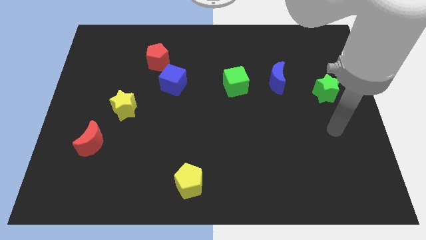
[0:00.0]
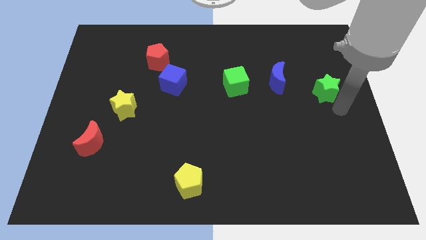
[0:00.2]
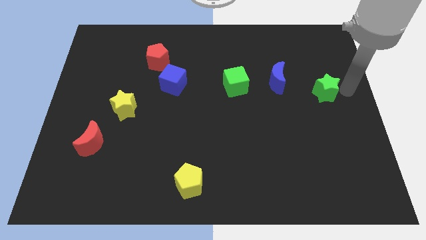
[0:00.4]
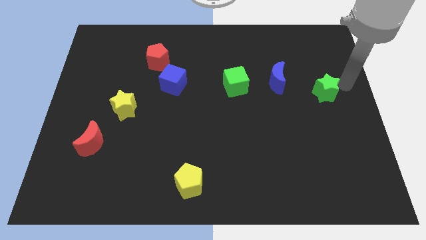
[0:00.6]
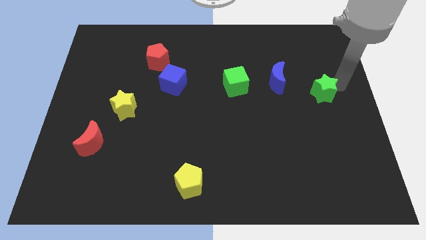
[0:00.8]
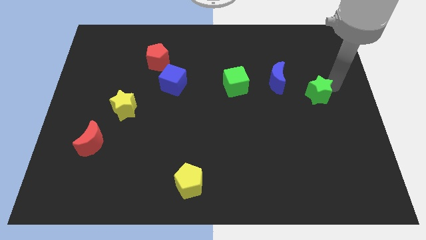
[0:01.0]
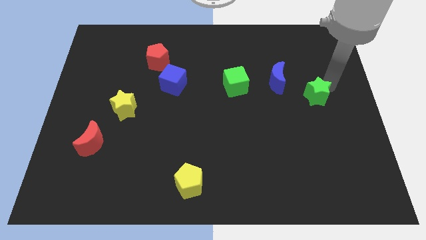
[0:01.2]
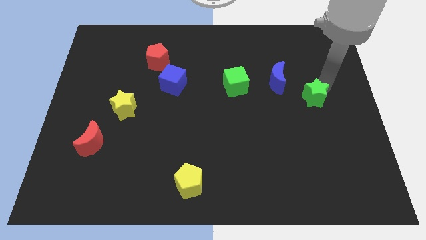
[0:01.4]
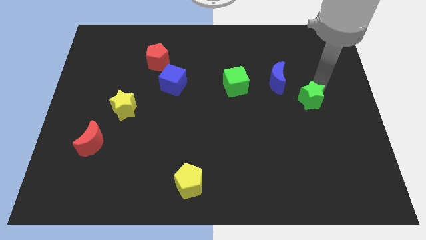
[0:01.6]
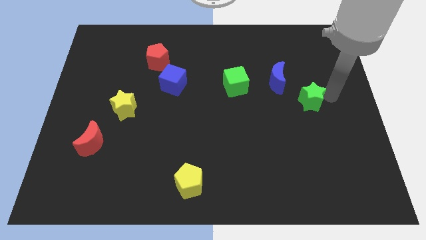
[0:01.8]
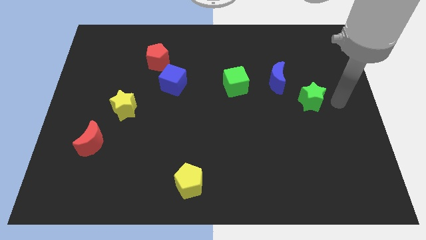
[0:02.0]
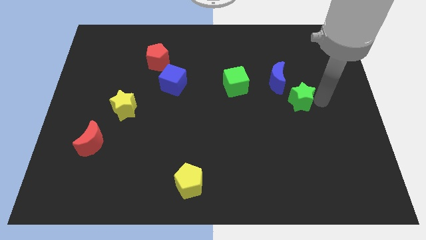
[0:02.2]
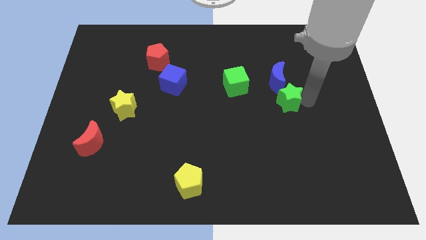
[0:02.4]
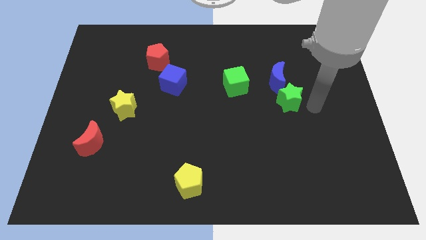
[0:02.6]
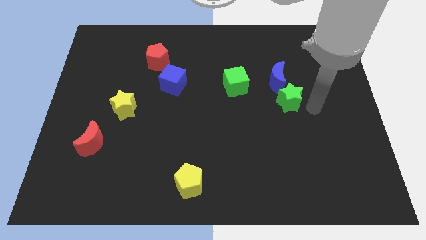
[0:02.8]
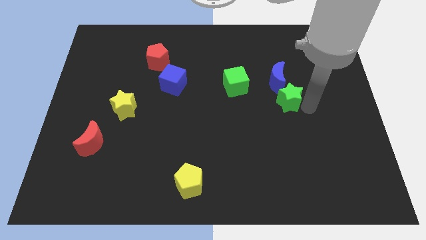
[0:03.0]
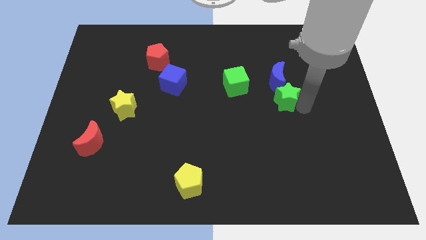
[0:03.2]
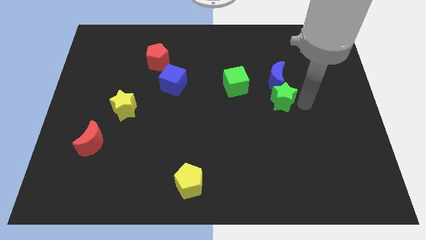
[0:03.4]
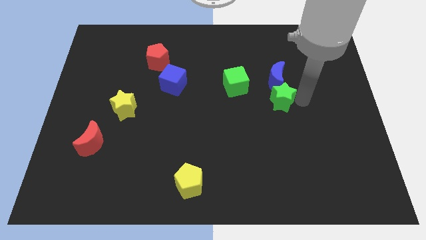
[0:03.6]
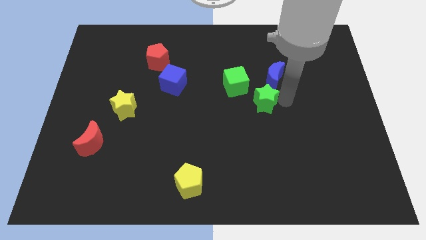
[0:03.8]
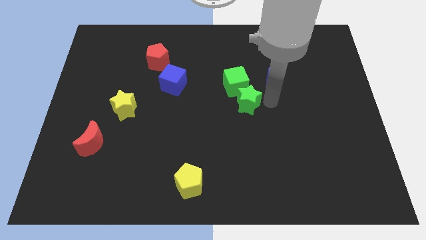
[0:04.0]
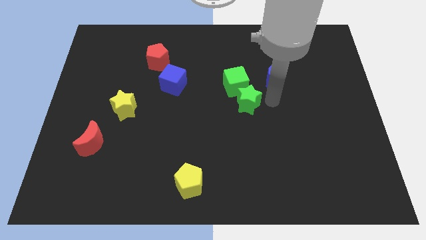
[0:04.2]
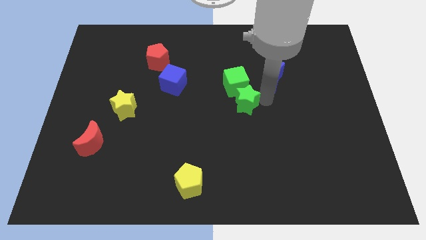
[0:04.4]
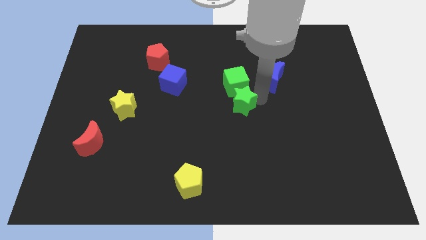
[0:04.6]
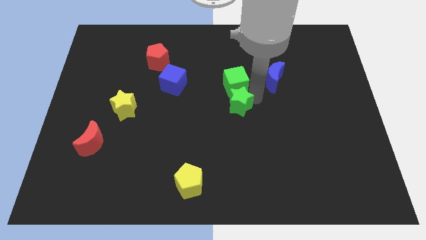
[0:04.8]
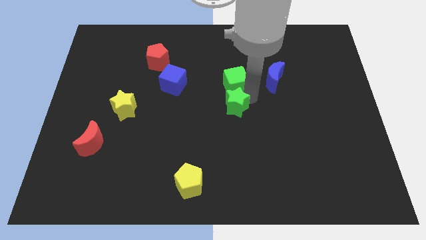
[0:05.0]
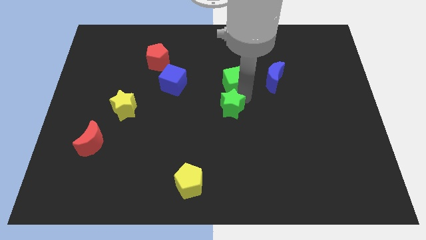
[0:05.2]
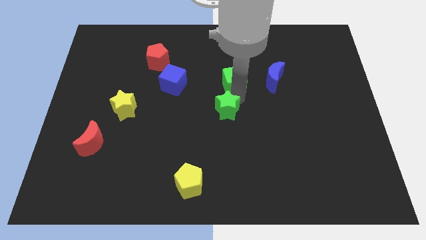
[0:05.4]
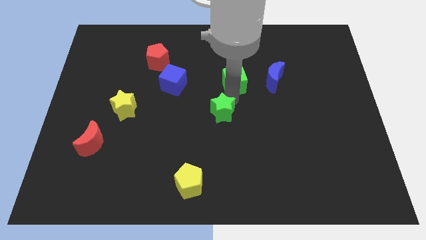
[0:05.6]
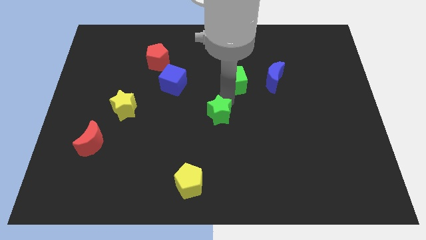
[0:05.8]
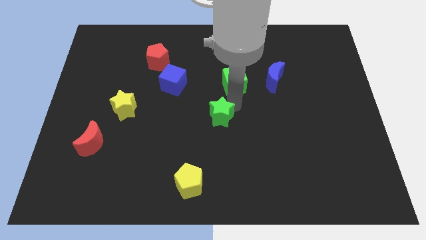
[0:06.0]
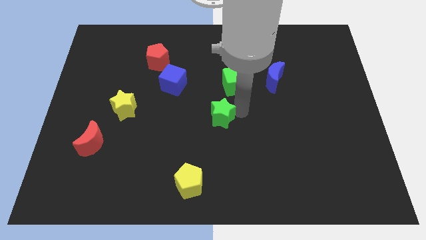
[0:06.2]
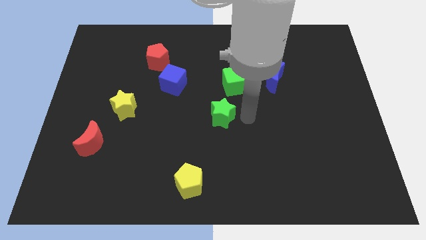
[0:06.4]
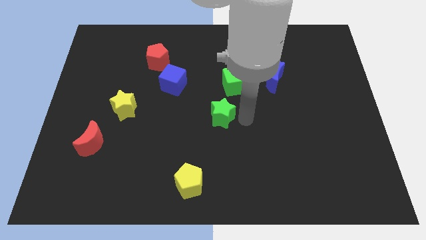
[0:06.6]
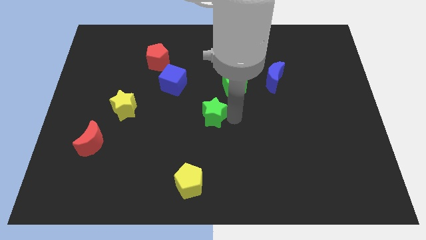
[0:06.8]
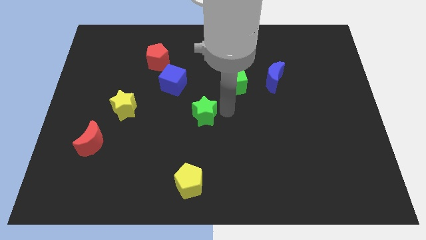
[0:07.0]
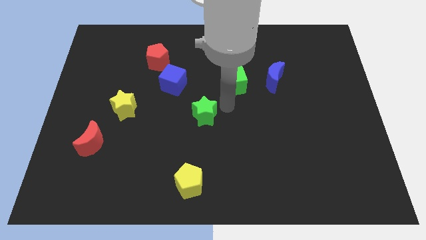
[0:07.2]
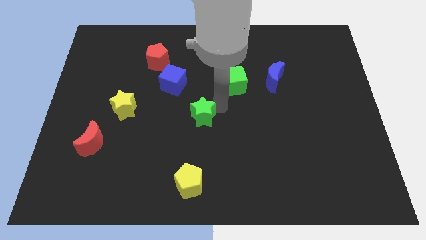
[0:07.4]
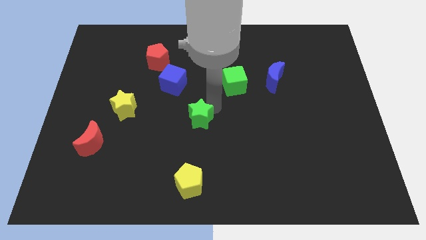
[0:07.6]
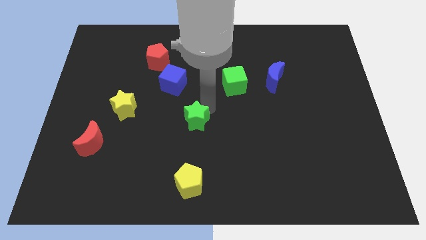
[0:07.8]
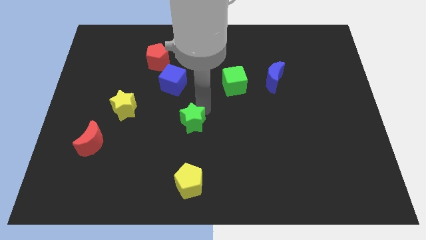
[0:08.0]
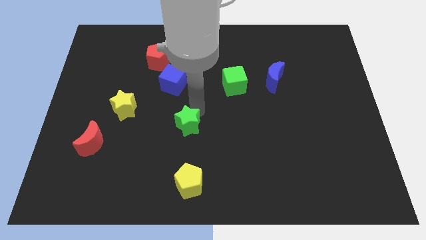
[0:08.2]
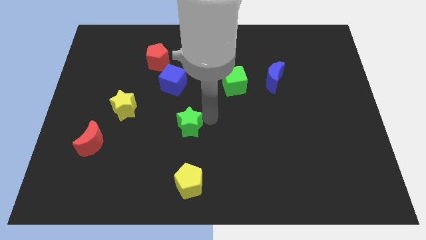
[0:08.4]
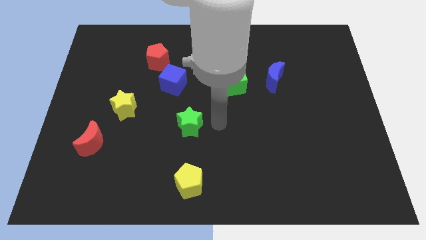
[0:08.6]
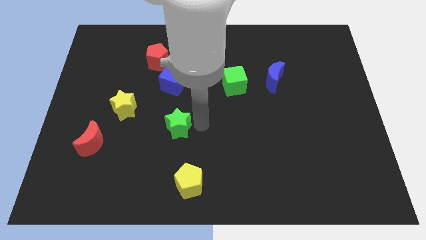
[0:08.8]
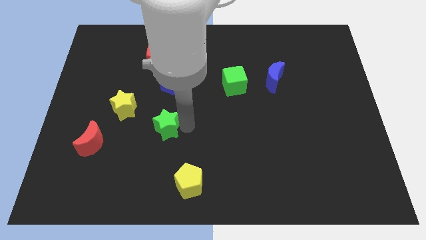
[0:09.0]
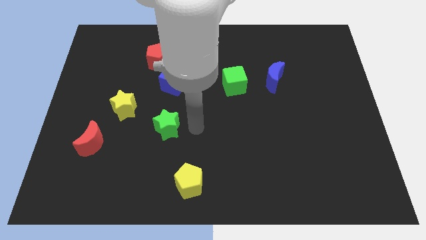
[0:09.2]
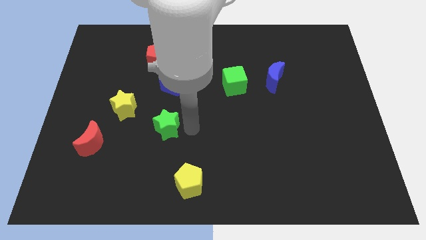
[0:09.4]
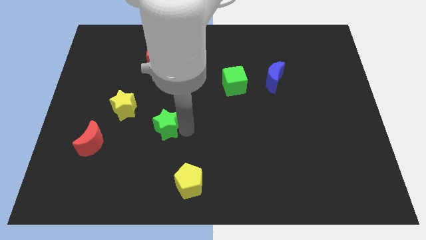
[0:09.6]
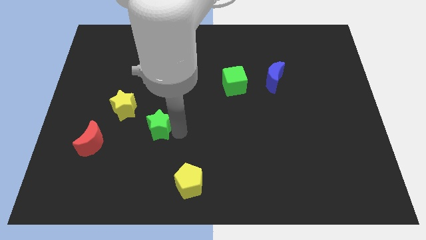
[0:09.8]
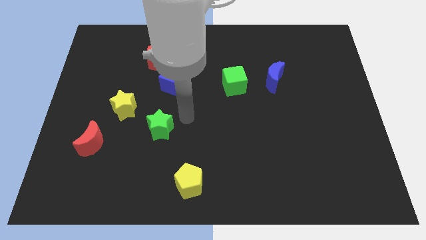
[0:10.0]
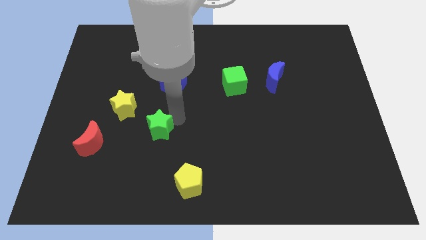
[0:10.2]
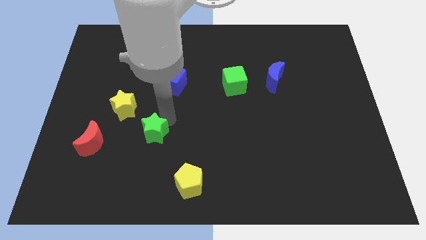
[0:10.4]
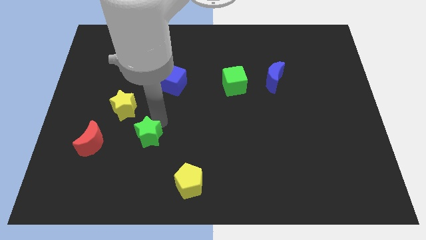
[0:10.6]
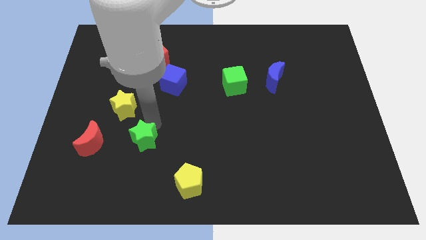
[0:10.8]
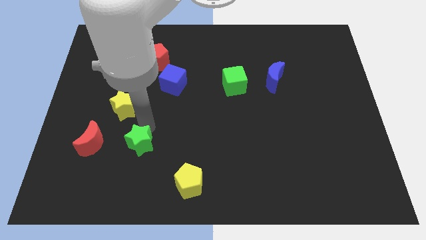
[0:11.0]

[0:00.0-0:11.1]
push the green star below the yellow star
